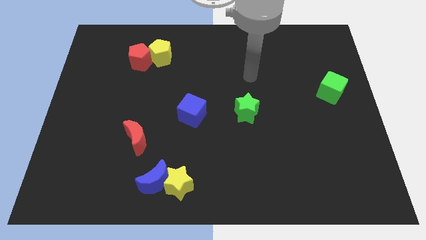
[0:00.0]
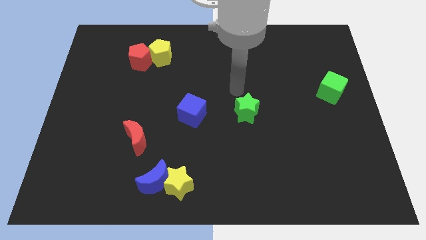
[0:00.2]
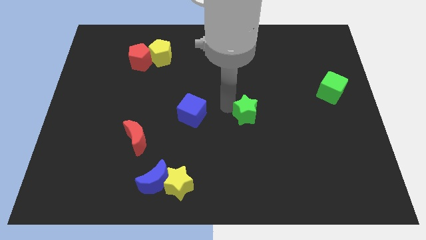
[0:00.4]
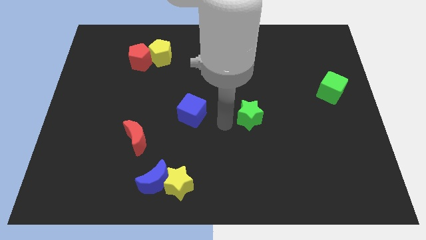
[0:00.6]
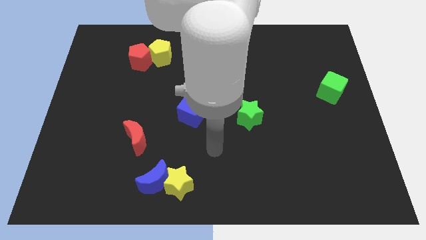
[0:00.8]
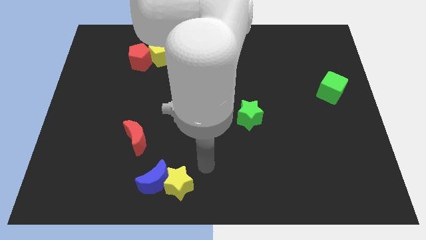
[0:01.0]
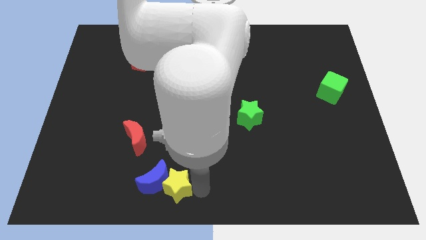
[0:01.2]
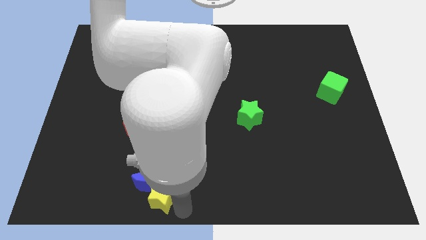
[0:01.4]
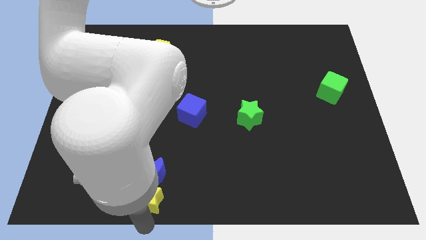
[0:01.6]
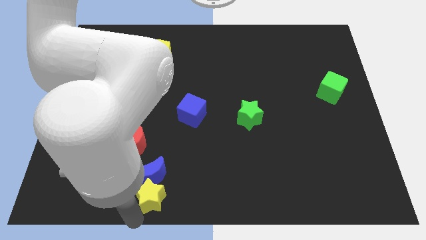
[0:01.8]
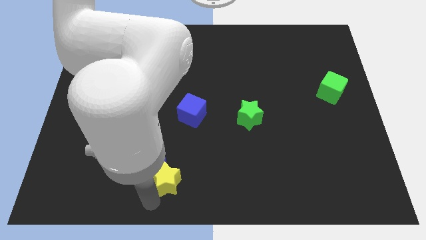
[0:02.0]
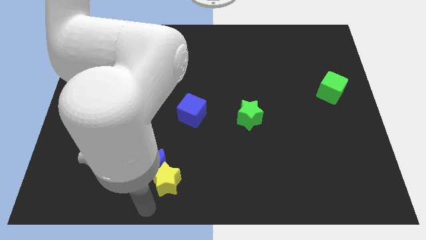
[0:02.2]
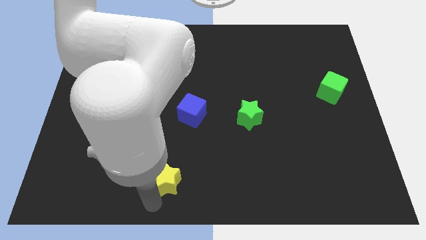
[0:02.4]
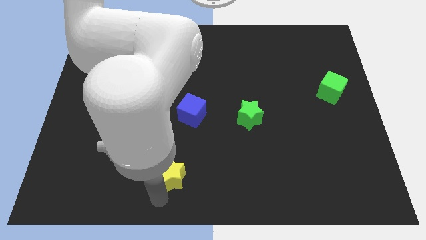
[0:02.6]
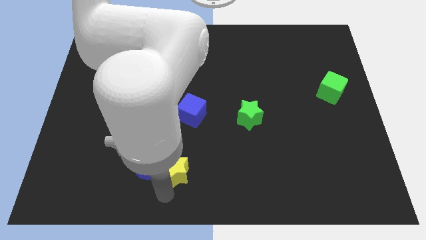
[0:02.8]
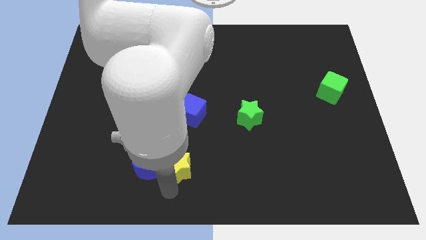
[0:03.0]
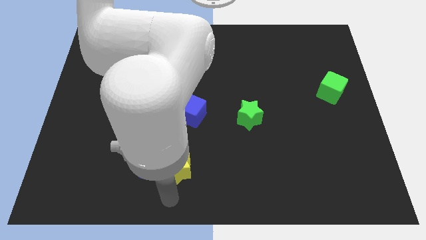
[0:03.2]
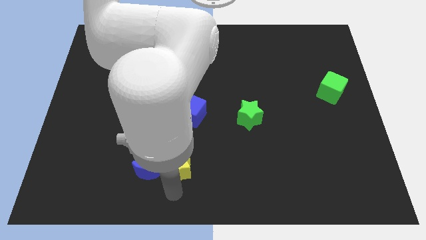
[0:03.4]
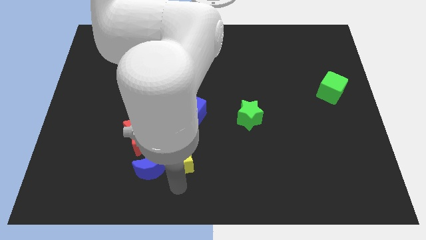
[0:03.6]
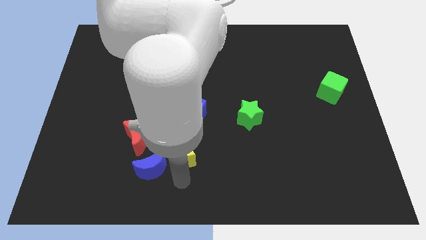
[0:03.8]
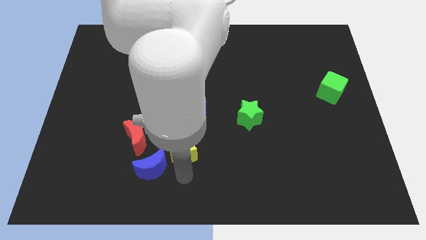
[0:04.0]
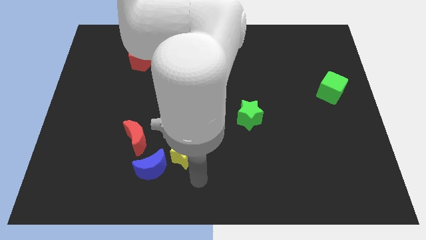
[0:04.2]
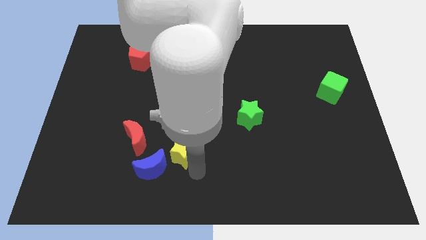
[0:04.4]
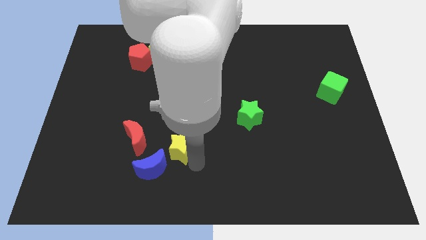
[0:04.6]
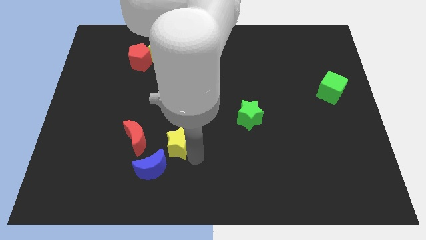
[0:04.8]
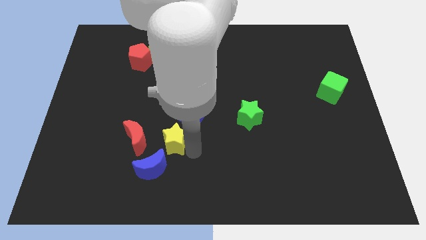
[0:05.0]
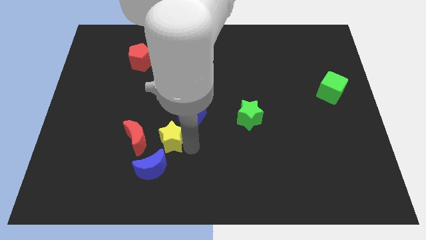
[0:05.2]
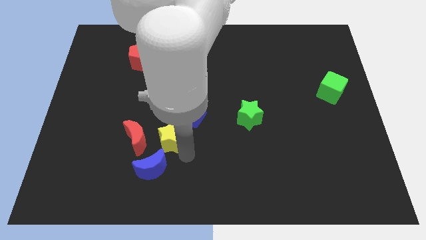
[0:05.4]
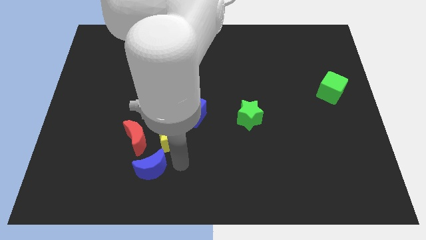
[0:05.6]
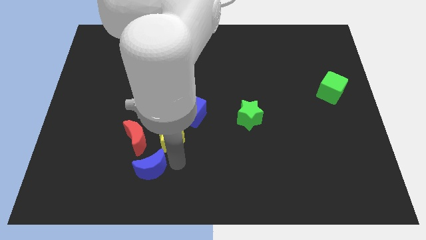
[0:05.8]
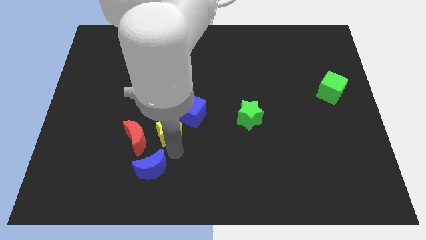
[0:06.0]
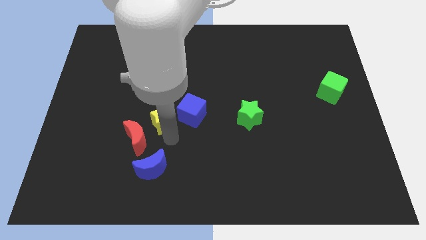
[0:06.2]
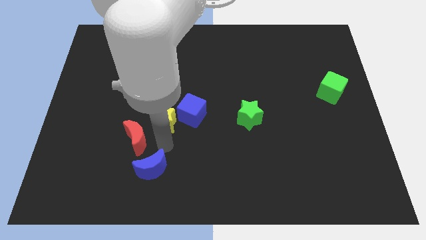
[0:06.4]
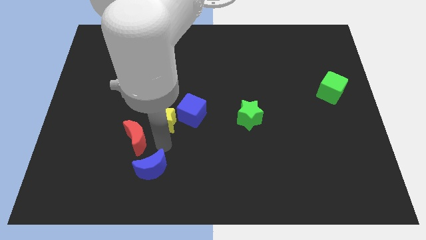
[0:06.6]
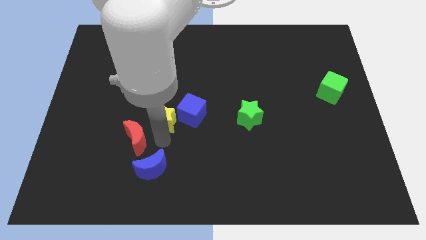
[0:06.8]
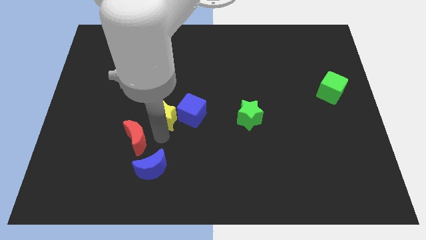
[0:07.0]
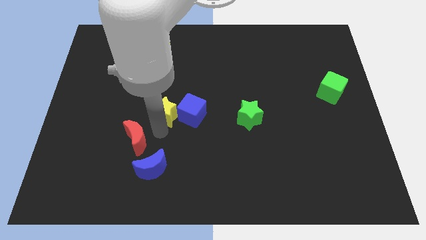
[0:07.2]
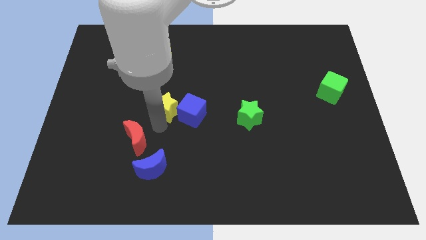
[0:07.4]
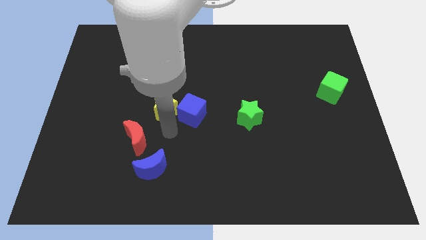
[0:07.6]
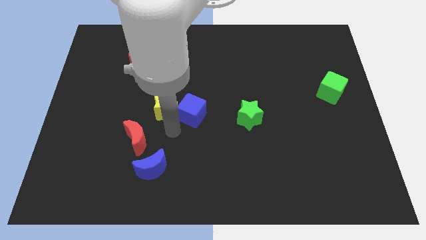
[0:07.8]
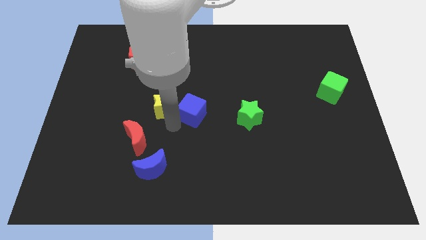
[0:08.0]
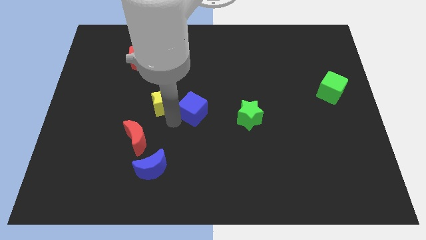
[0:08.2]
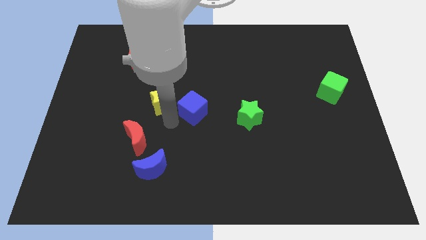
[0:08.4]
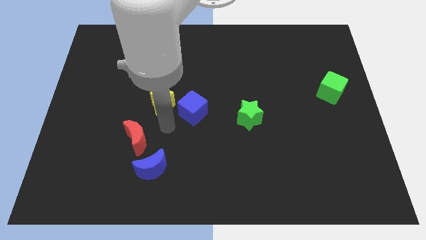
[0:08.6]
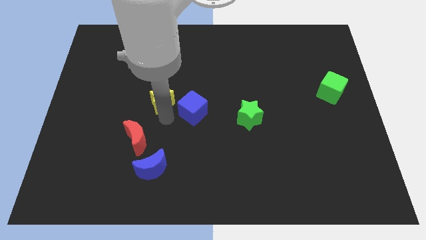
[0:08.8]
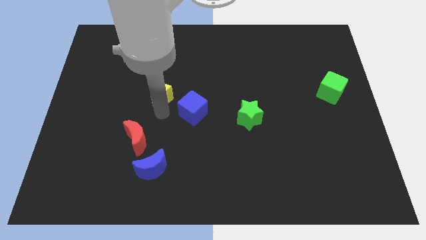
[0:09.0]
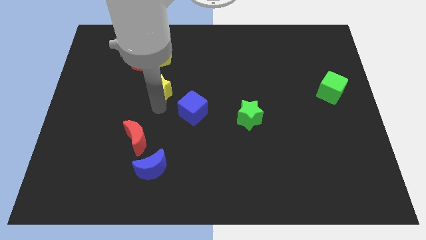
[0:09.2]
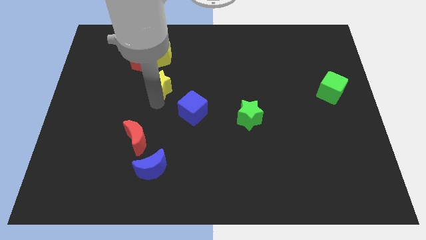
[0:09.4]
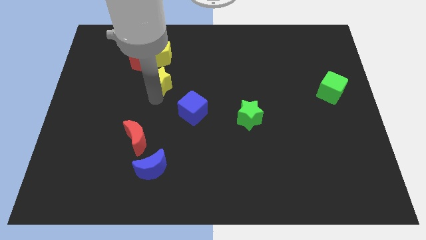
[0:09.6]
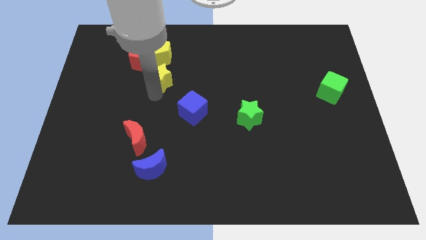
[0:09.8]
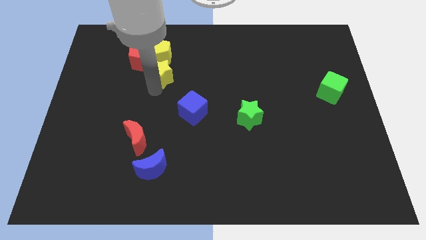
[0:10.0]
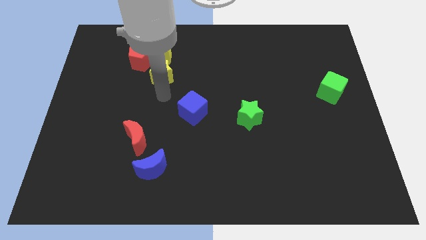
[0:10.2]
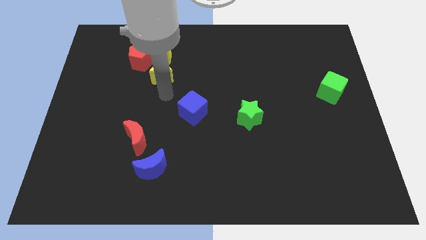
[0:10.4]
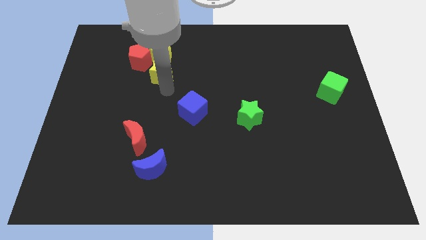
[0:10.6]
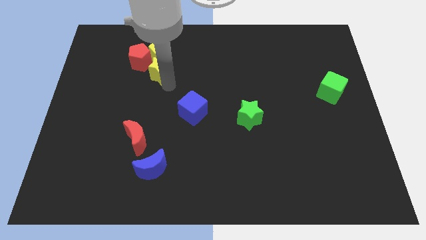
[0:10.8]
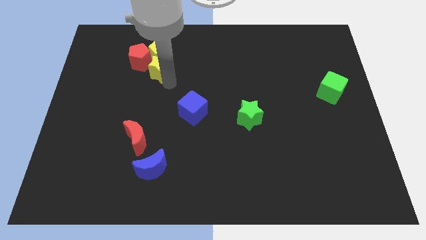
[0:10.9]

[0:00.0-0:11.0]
slide the yellow star next to the yellow pentagon

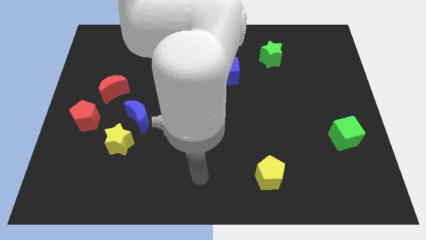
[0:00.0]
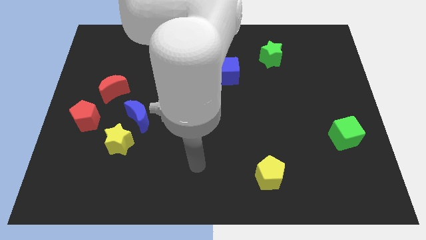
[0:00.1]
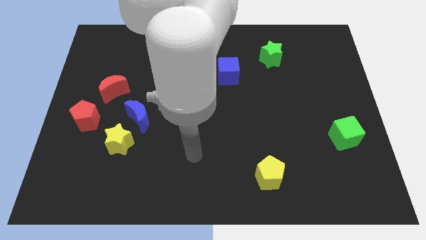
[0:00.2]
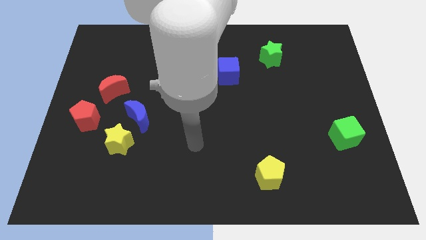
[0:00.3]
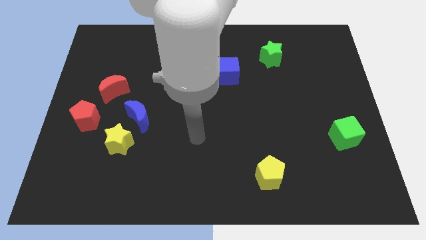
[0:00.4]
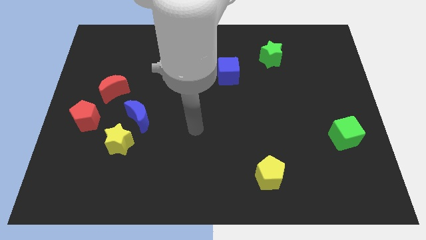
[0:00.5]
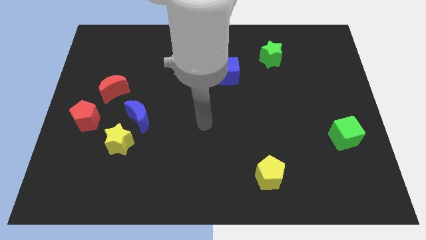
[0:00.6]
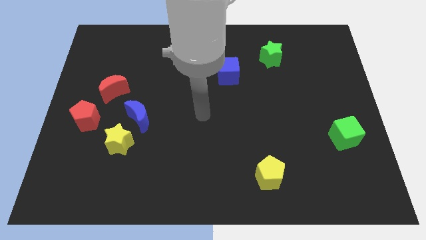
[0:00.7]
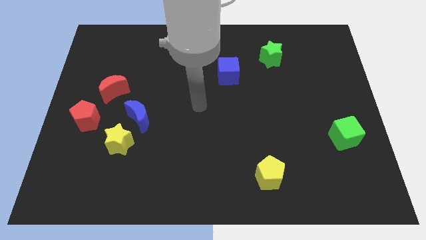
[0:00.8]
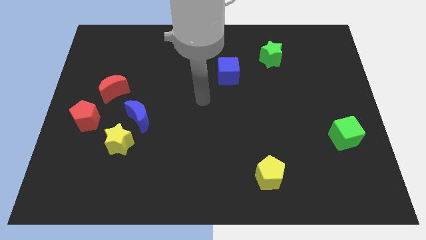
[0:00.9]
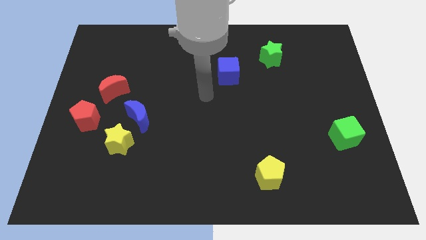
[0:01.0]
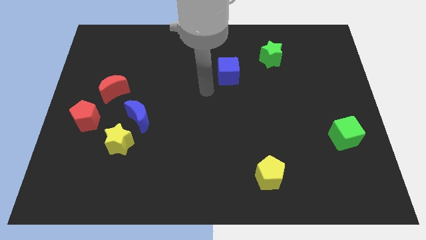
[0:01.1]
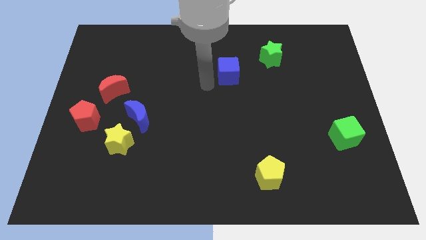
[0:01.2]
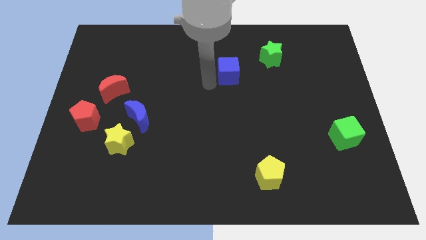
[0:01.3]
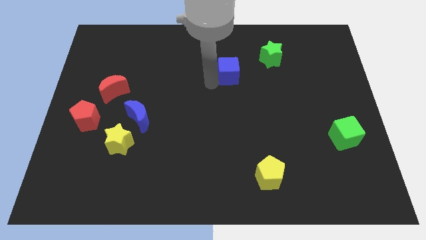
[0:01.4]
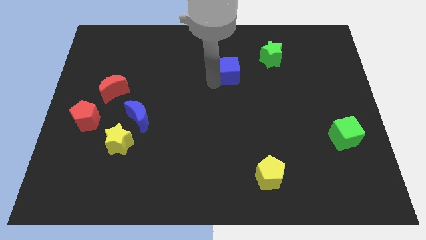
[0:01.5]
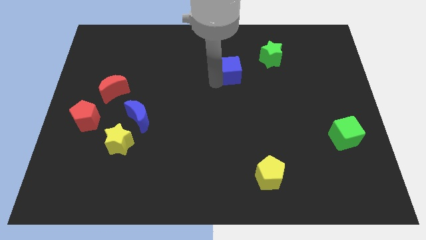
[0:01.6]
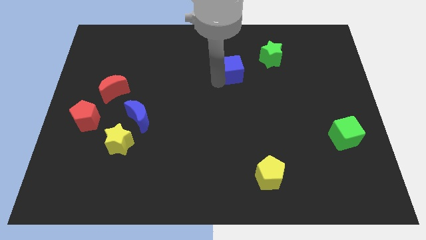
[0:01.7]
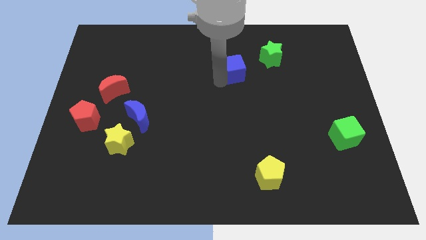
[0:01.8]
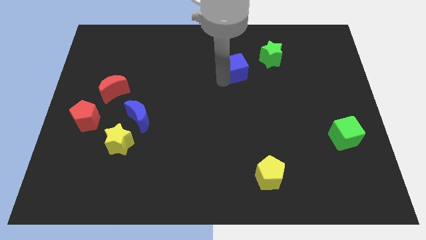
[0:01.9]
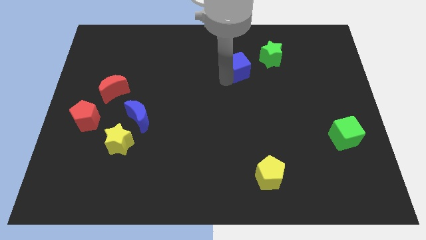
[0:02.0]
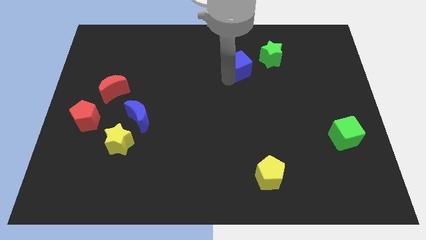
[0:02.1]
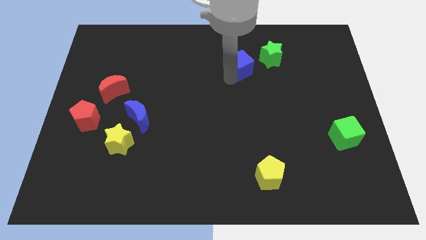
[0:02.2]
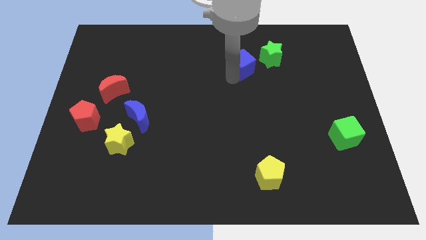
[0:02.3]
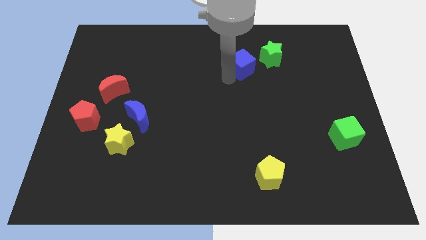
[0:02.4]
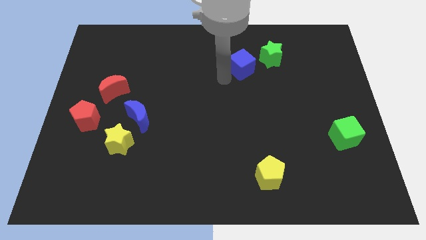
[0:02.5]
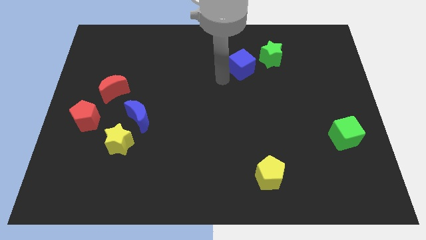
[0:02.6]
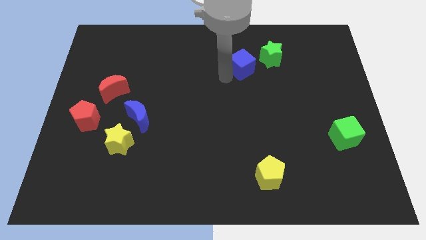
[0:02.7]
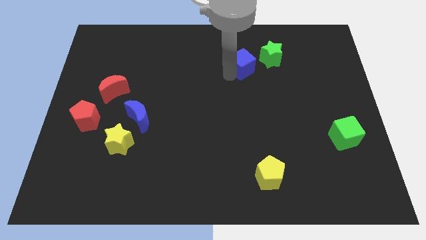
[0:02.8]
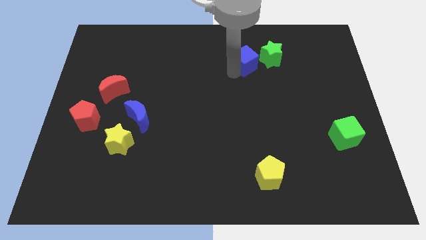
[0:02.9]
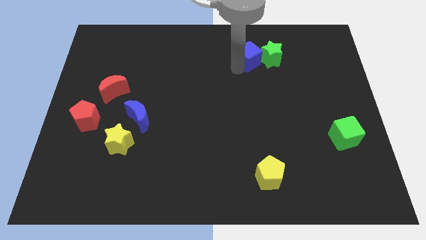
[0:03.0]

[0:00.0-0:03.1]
push the blue cube next to the green star
